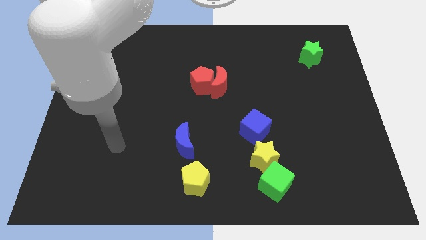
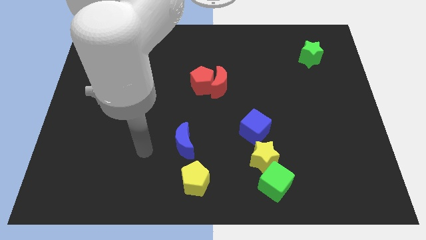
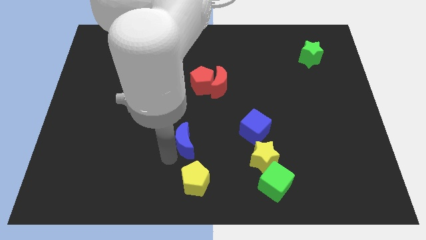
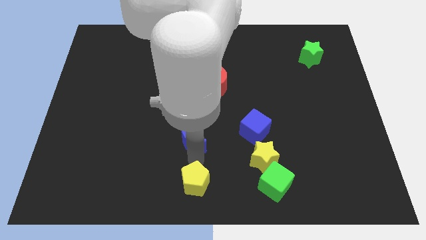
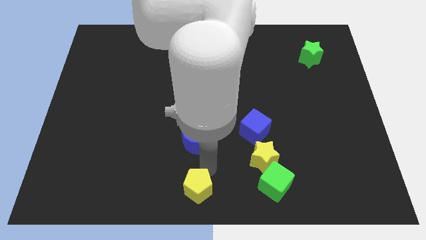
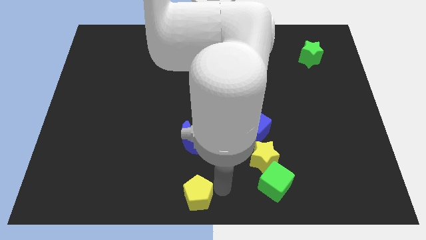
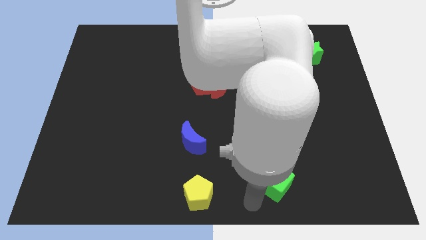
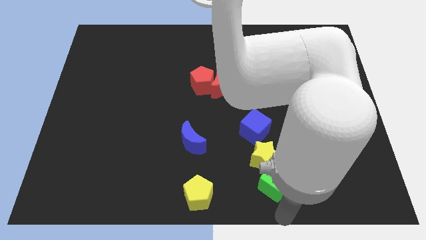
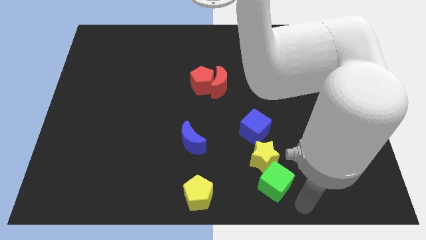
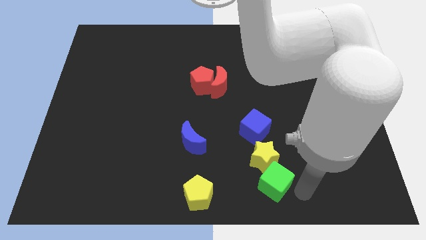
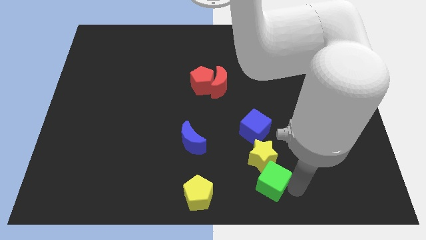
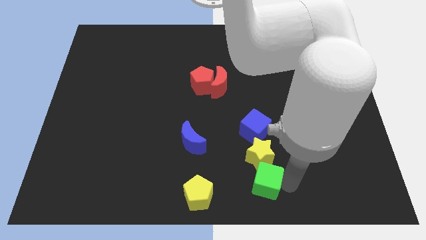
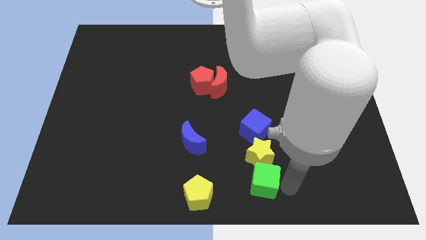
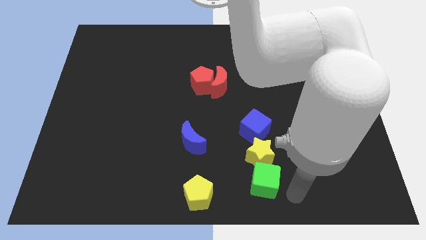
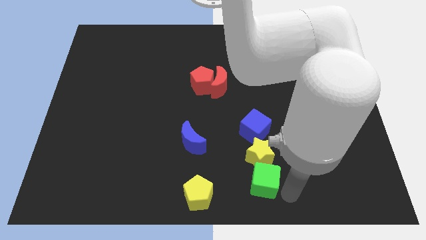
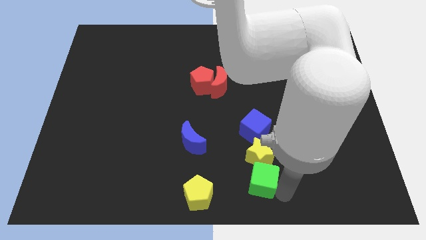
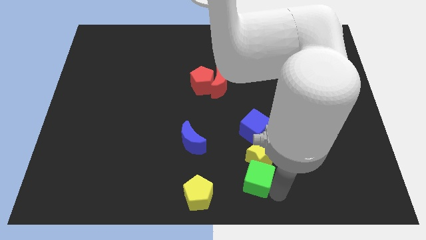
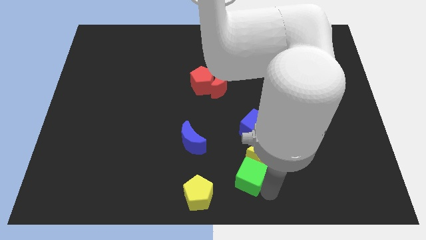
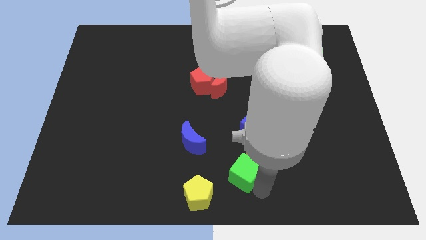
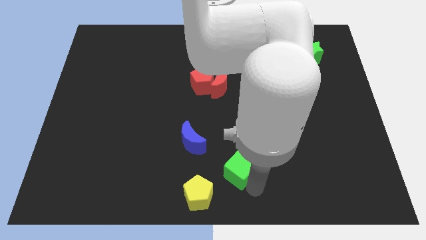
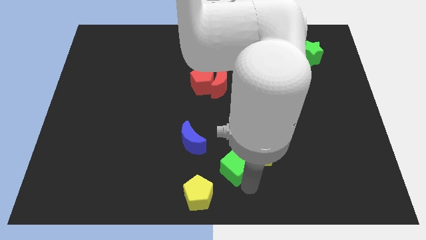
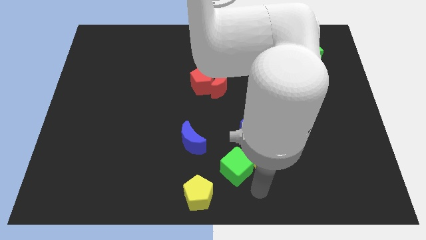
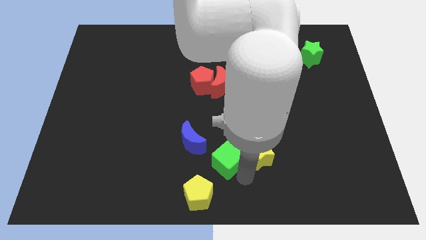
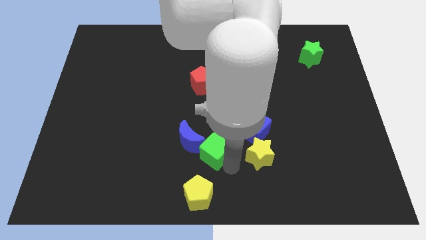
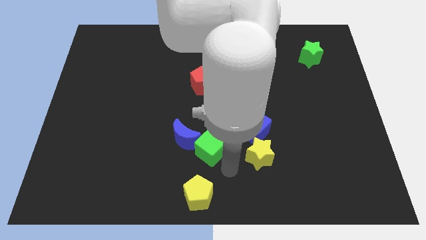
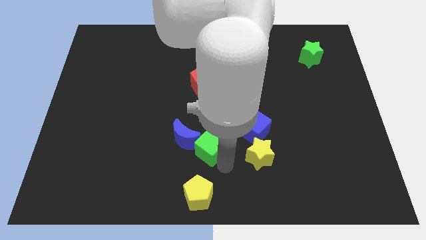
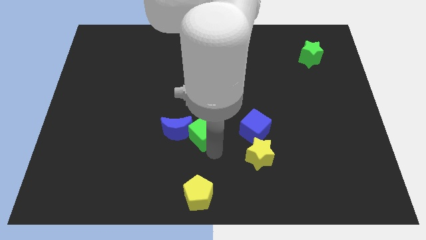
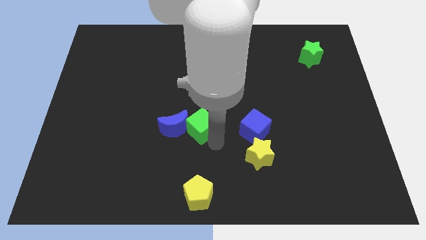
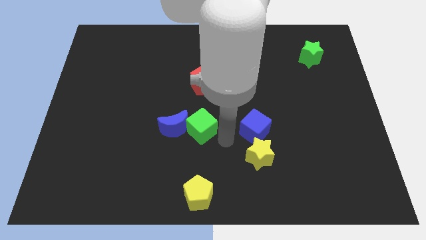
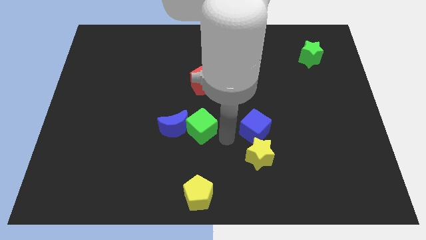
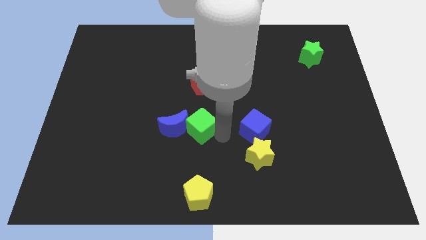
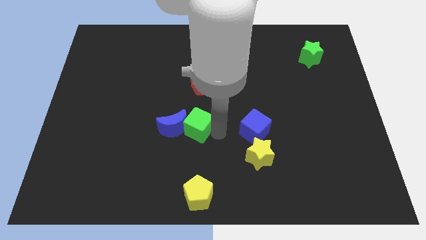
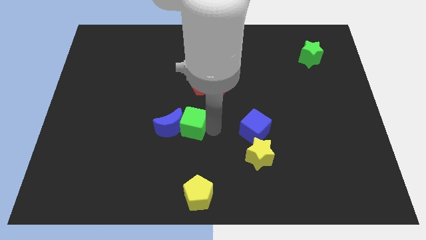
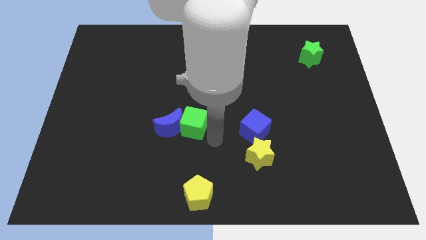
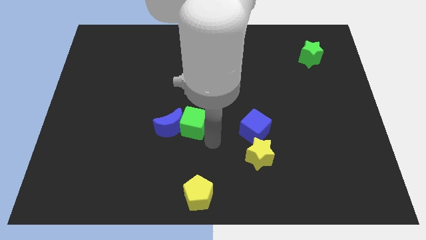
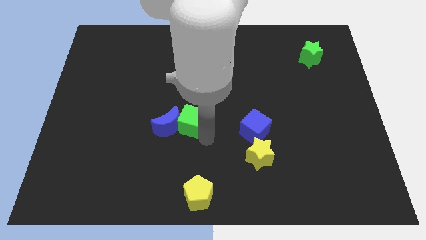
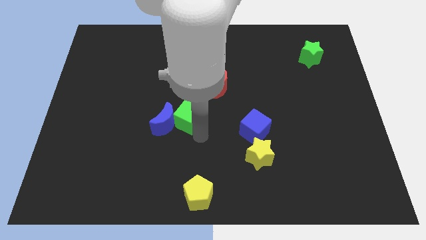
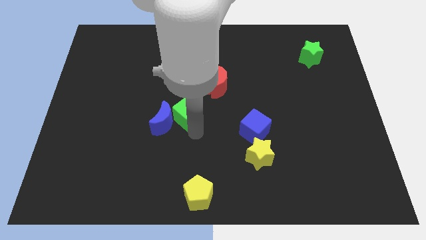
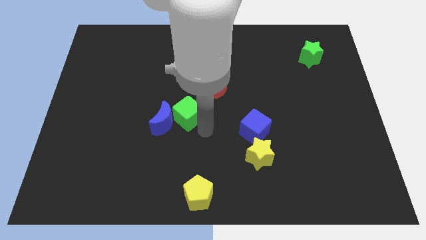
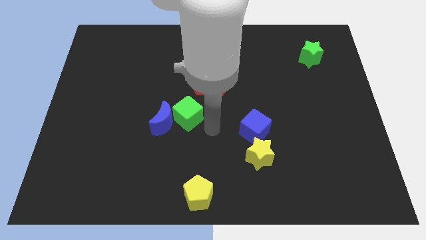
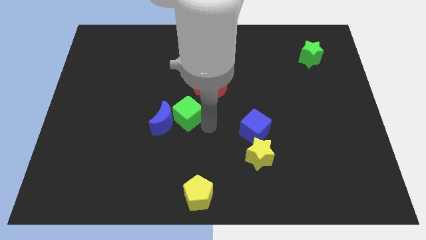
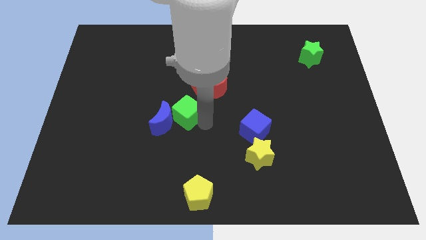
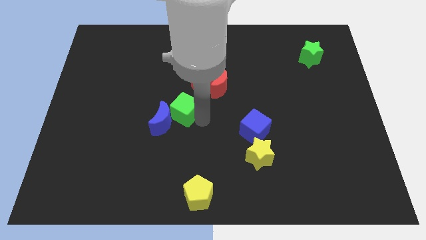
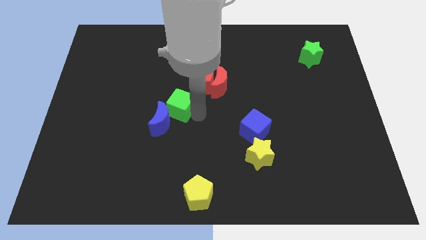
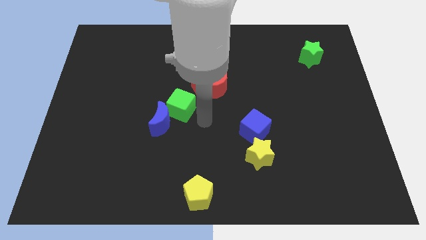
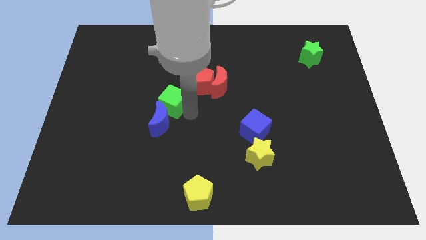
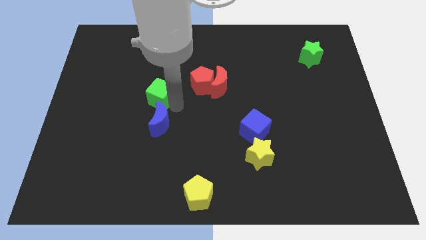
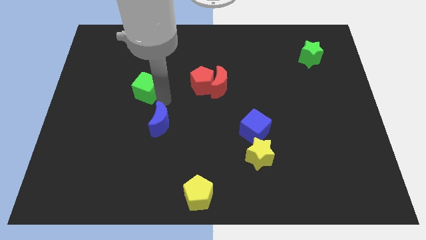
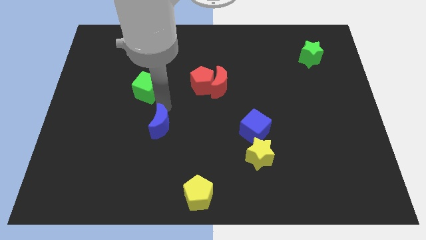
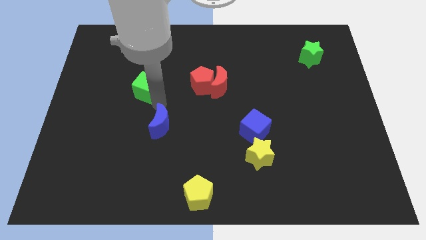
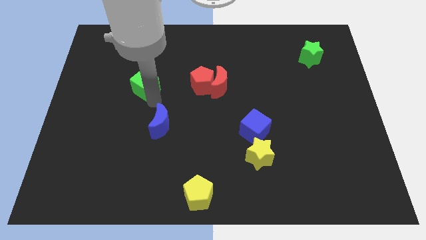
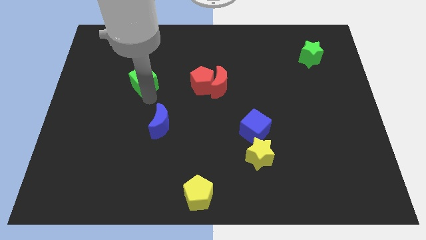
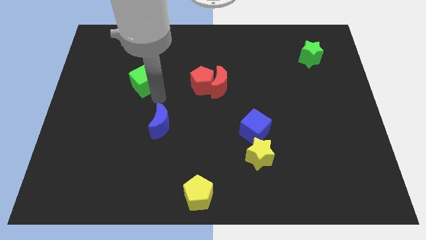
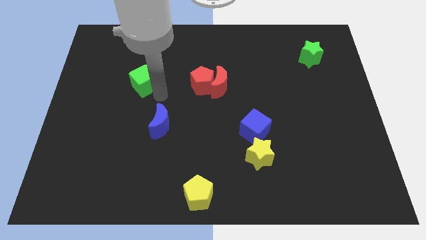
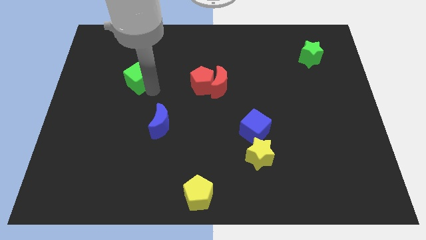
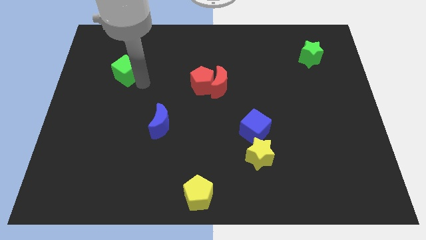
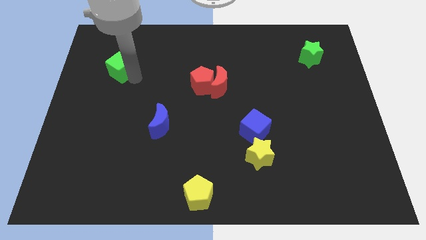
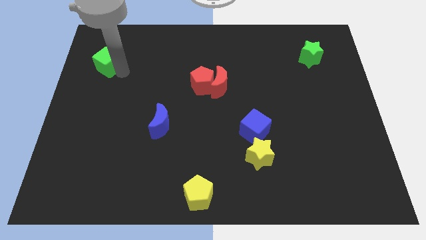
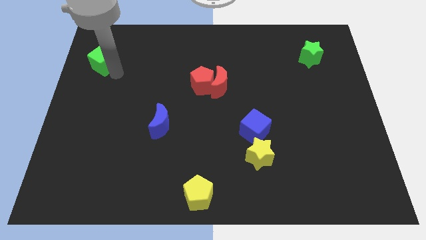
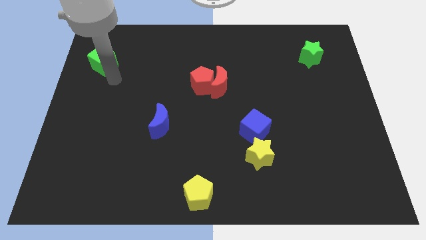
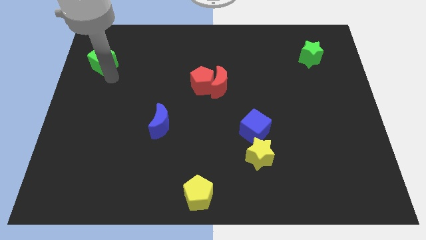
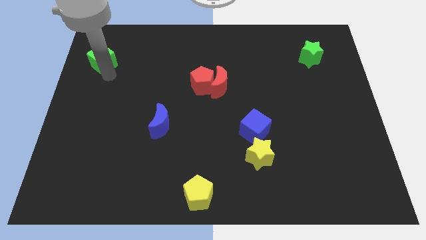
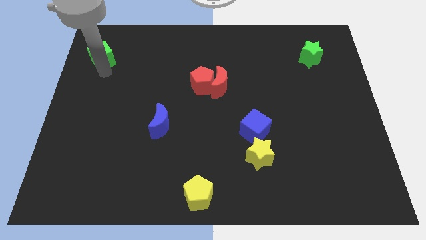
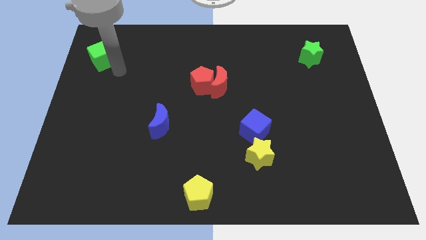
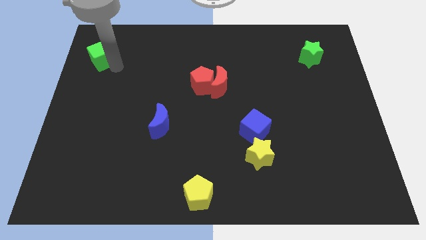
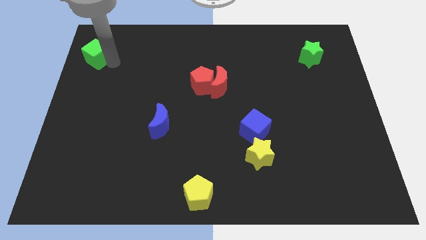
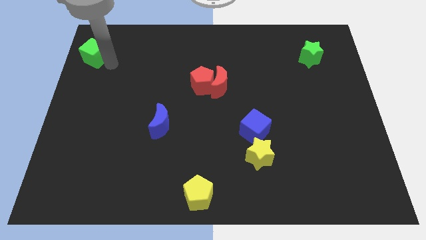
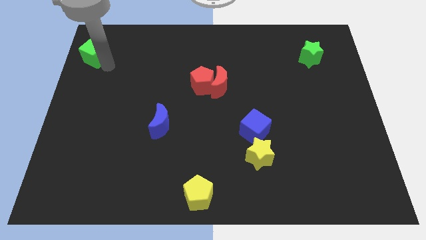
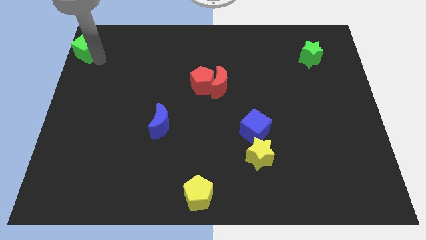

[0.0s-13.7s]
slide the green cube to the top left
